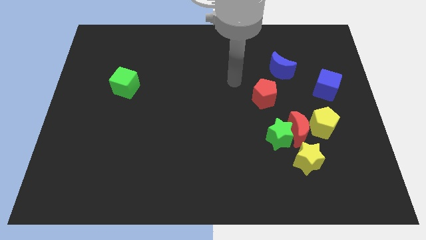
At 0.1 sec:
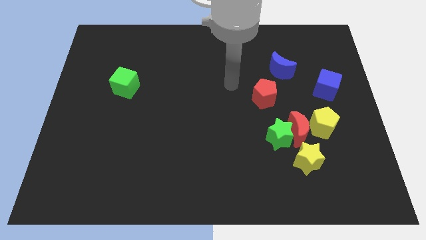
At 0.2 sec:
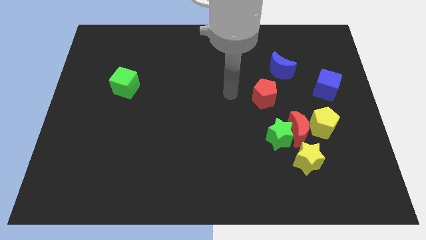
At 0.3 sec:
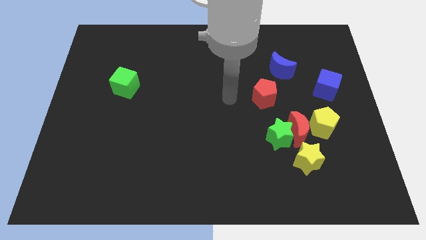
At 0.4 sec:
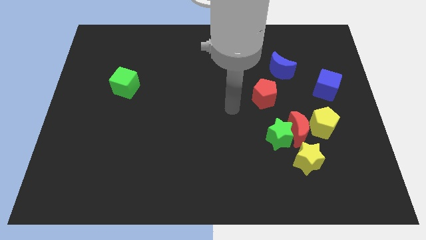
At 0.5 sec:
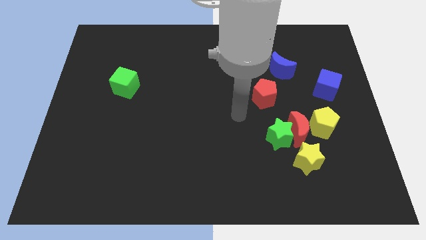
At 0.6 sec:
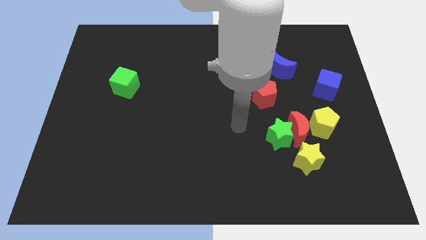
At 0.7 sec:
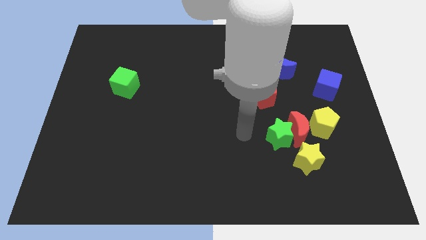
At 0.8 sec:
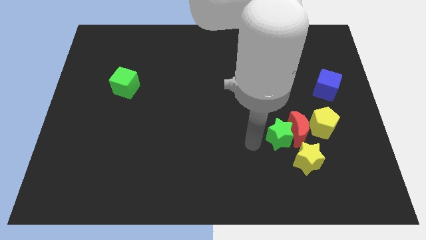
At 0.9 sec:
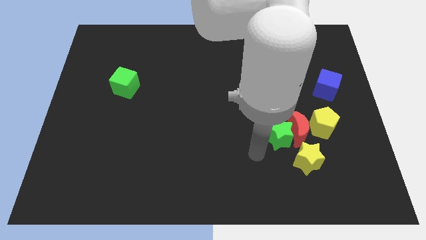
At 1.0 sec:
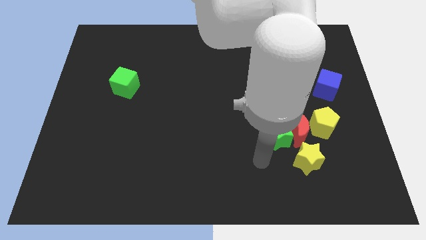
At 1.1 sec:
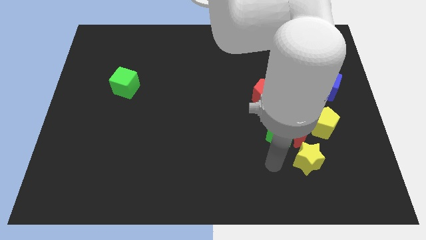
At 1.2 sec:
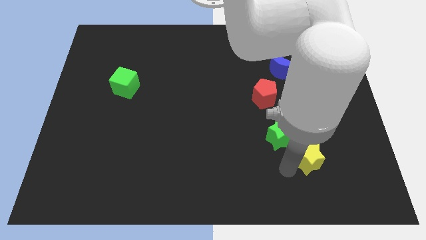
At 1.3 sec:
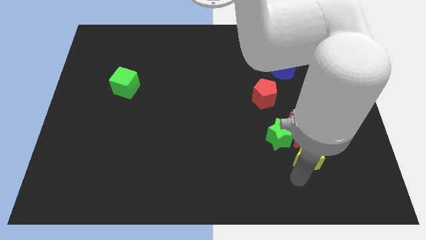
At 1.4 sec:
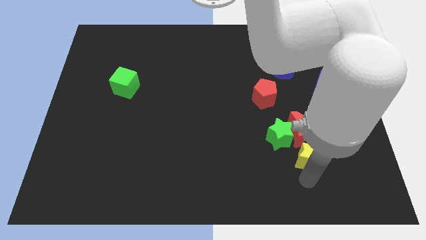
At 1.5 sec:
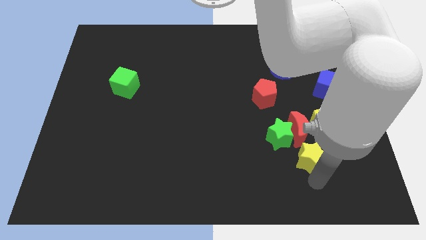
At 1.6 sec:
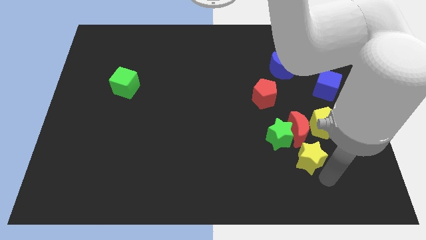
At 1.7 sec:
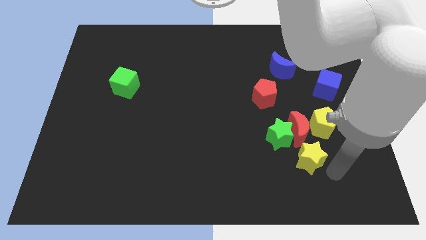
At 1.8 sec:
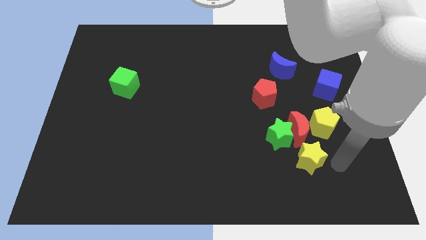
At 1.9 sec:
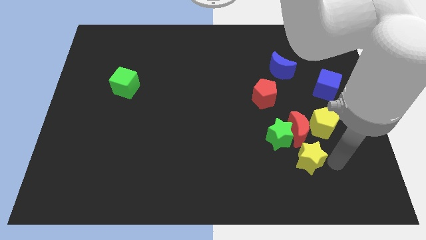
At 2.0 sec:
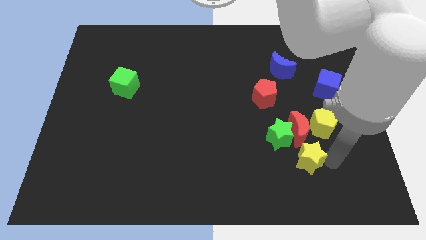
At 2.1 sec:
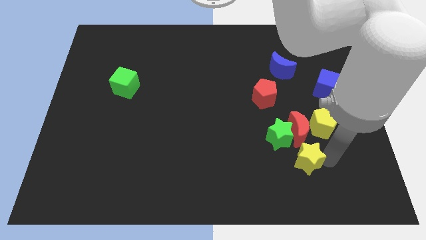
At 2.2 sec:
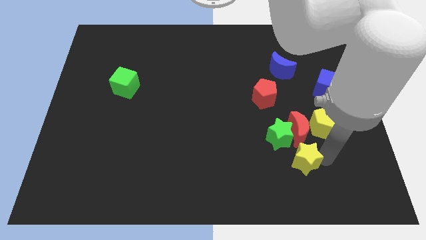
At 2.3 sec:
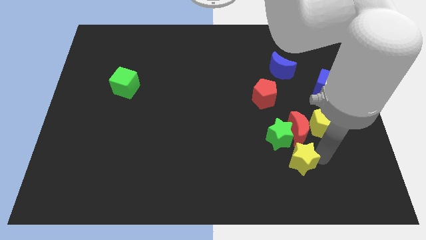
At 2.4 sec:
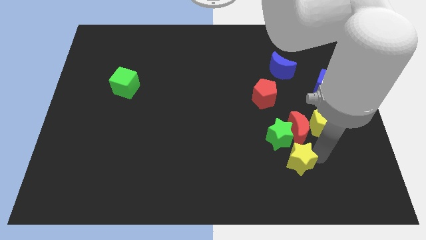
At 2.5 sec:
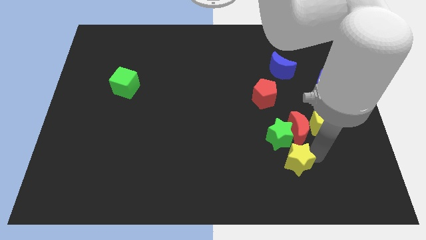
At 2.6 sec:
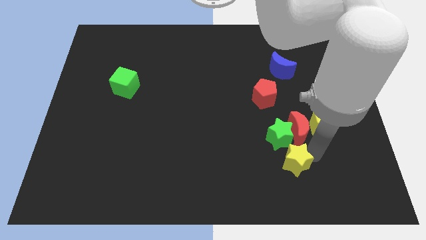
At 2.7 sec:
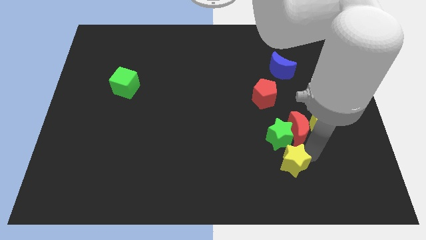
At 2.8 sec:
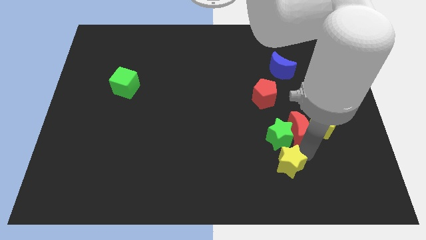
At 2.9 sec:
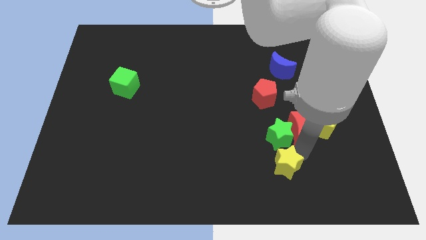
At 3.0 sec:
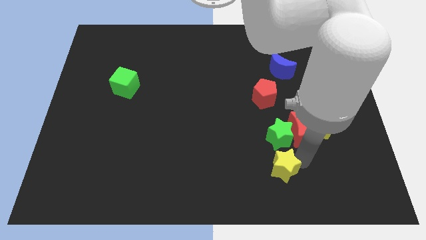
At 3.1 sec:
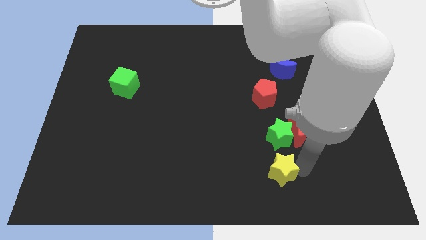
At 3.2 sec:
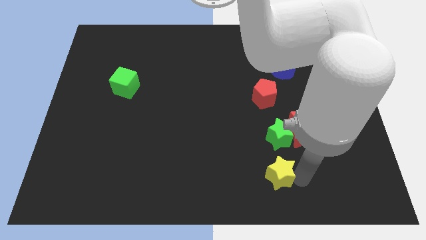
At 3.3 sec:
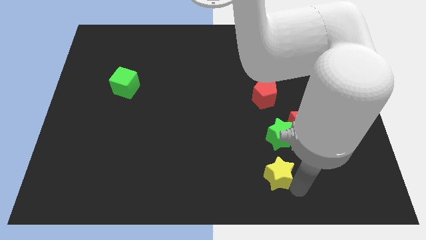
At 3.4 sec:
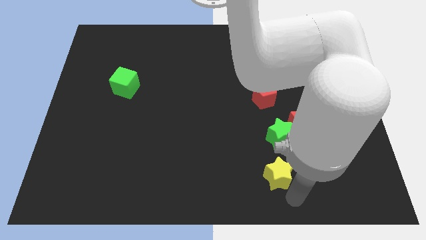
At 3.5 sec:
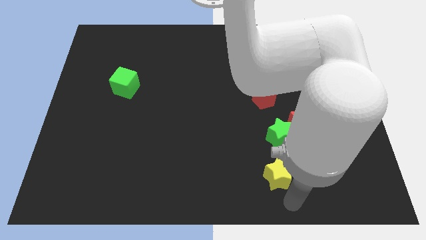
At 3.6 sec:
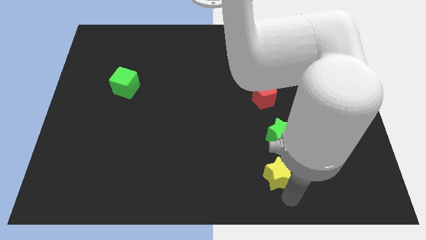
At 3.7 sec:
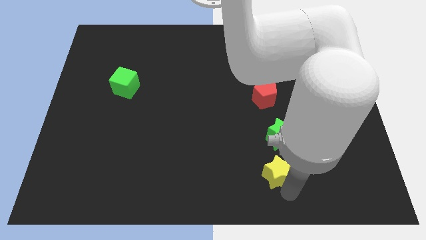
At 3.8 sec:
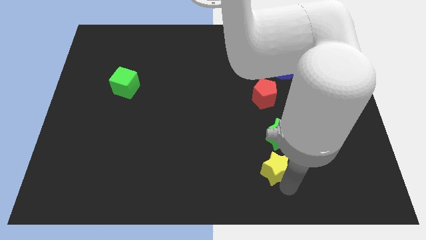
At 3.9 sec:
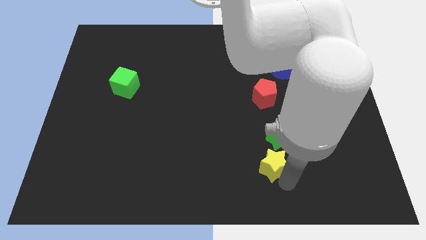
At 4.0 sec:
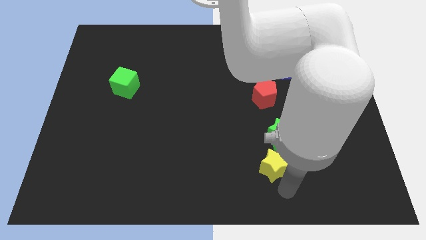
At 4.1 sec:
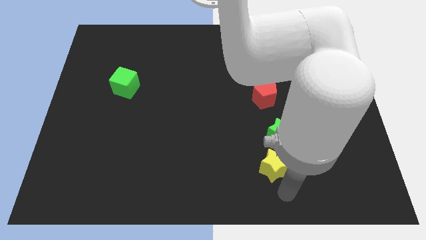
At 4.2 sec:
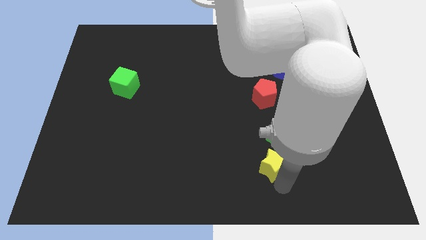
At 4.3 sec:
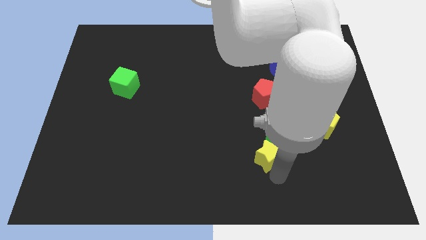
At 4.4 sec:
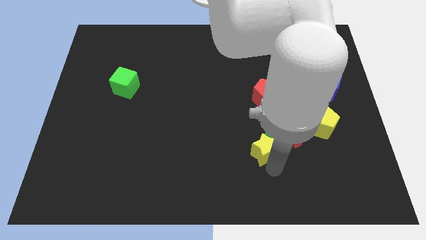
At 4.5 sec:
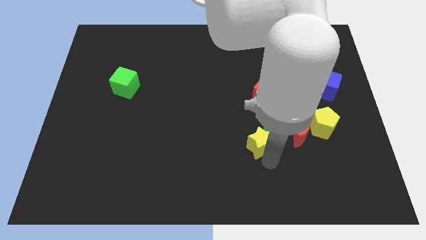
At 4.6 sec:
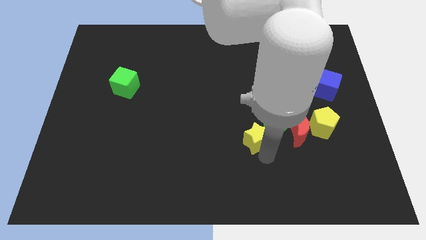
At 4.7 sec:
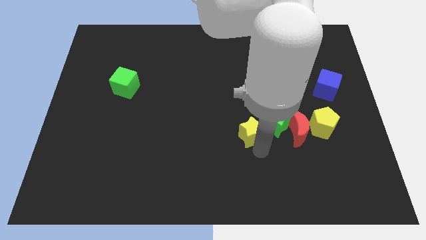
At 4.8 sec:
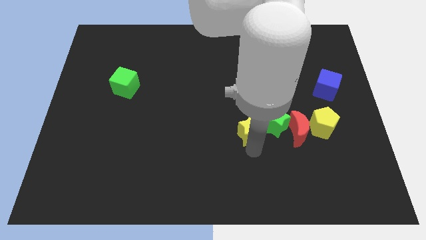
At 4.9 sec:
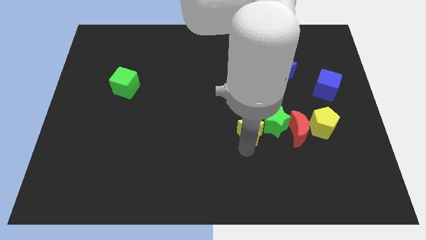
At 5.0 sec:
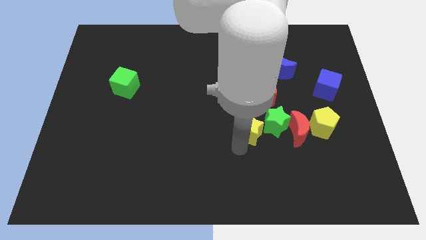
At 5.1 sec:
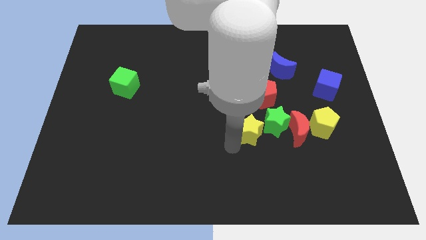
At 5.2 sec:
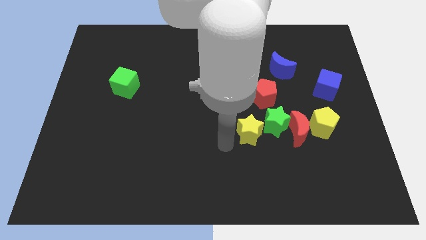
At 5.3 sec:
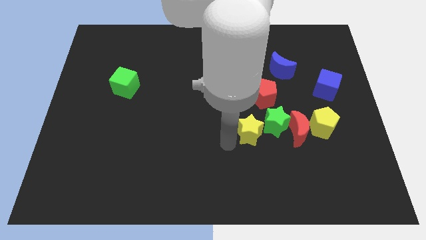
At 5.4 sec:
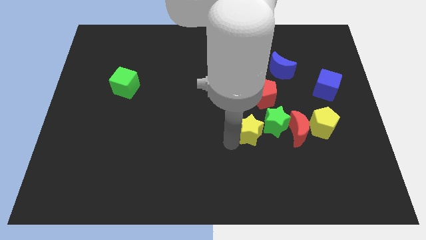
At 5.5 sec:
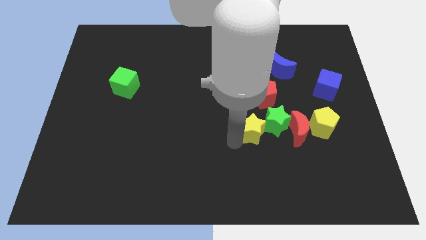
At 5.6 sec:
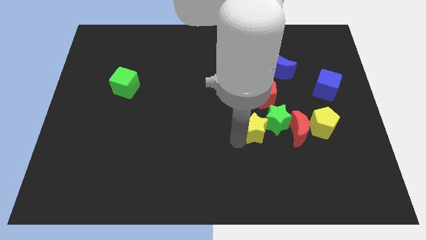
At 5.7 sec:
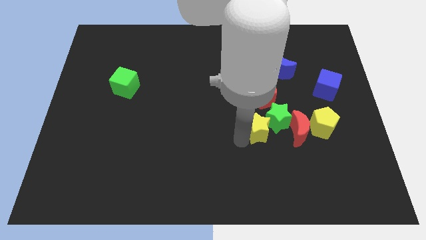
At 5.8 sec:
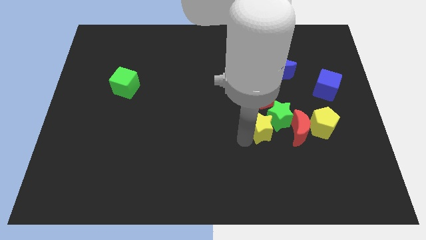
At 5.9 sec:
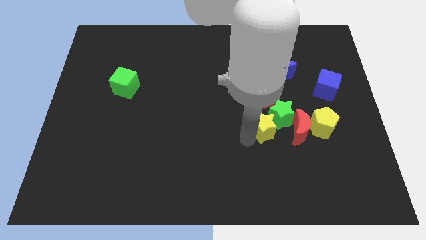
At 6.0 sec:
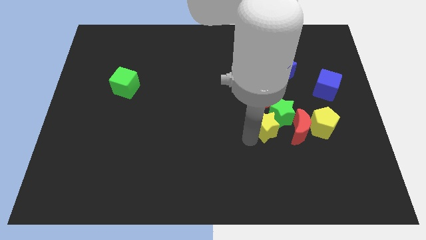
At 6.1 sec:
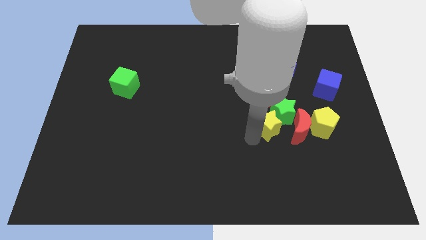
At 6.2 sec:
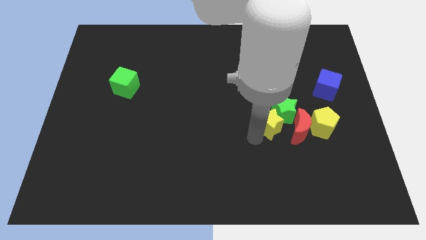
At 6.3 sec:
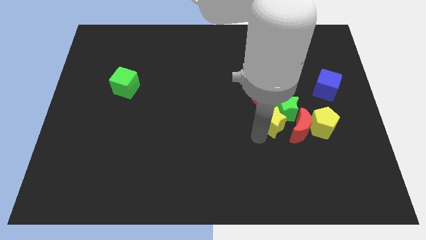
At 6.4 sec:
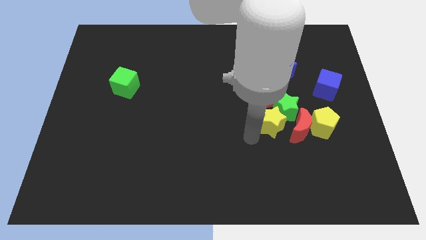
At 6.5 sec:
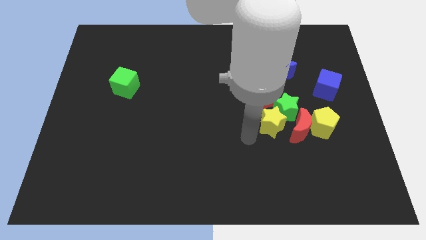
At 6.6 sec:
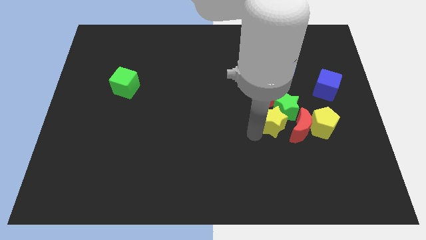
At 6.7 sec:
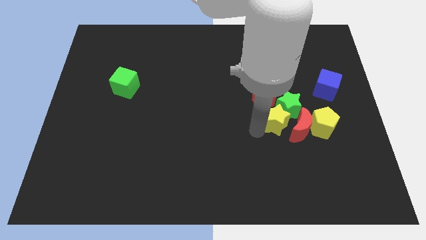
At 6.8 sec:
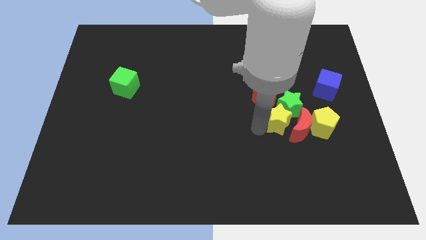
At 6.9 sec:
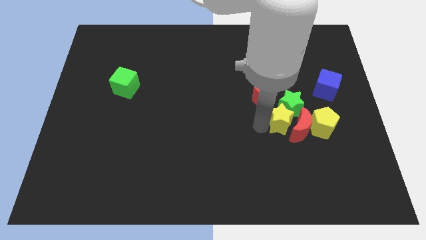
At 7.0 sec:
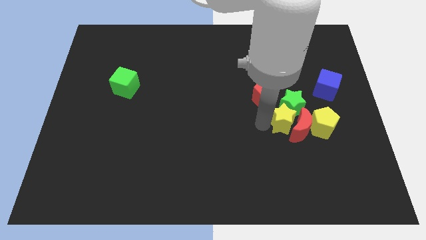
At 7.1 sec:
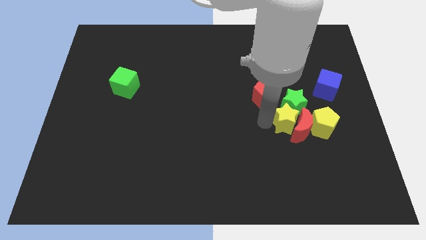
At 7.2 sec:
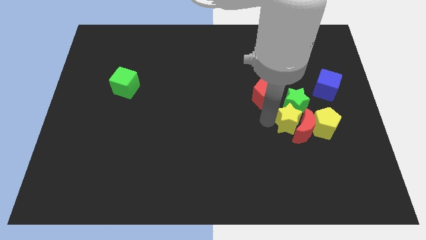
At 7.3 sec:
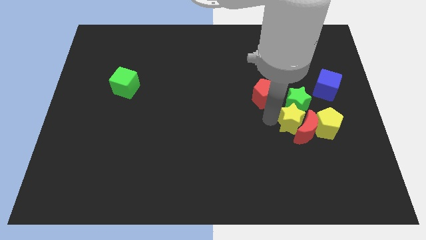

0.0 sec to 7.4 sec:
push the yellow star to the top left side of the yellow pentagon
